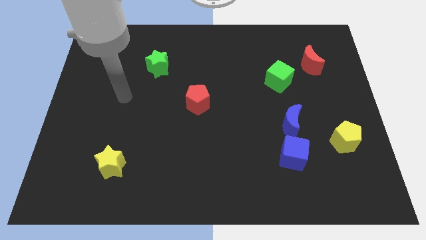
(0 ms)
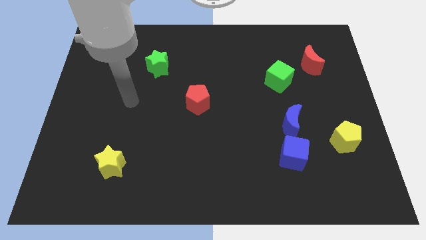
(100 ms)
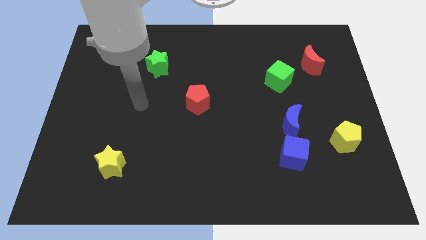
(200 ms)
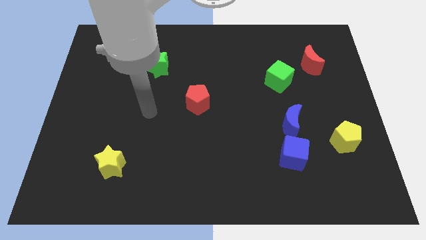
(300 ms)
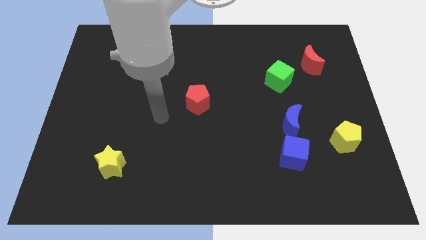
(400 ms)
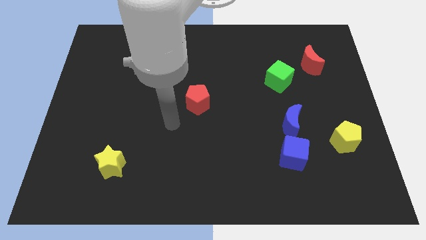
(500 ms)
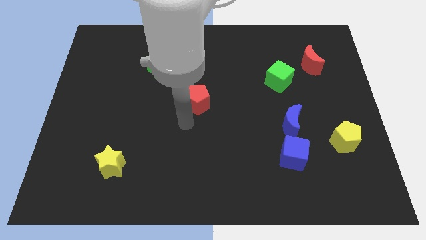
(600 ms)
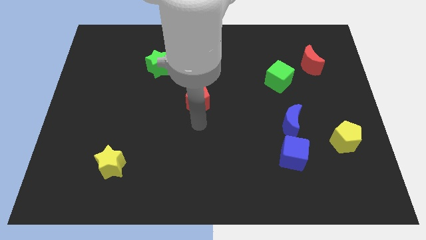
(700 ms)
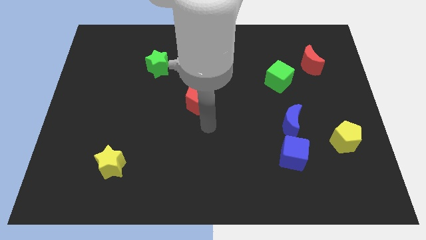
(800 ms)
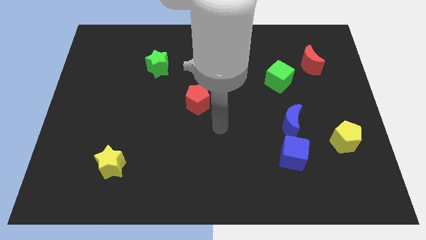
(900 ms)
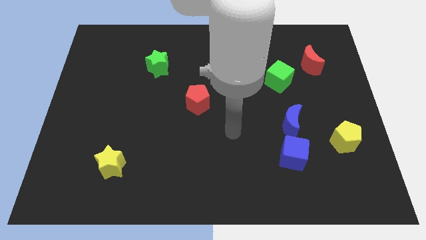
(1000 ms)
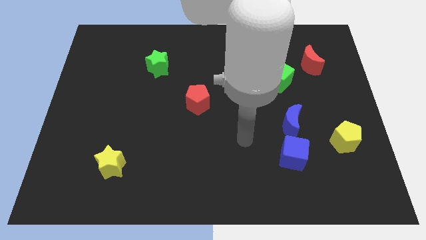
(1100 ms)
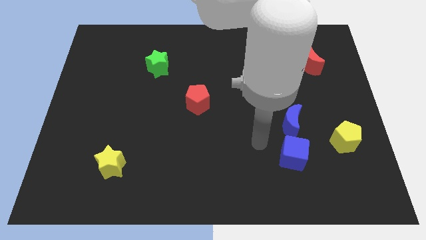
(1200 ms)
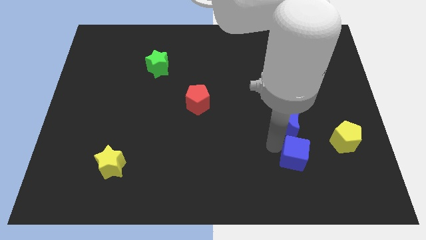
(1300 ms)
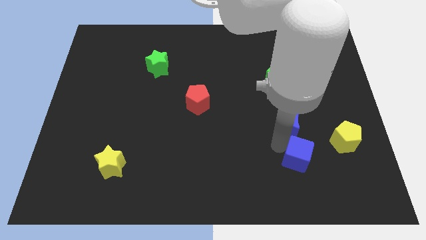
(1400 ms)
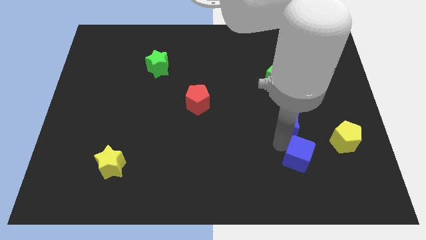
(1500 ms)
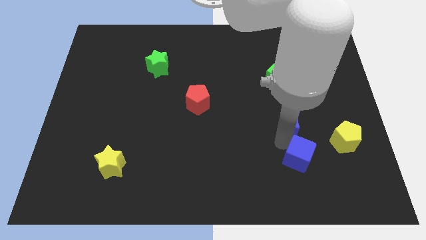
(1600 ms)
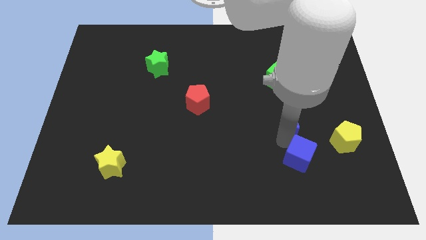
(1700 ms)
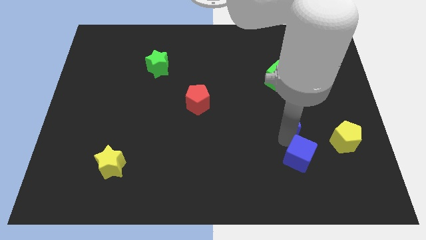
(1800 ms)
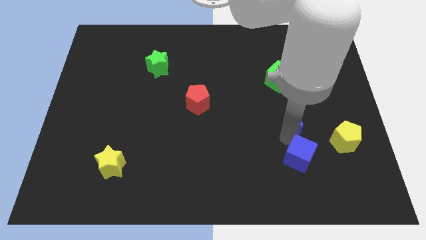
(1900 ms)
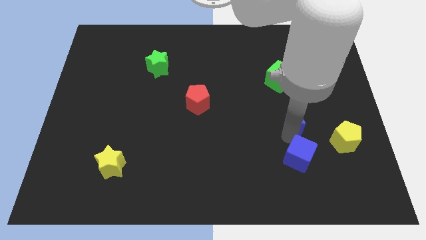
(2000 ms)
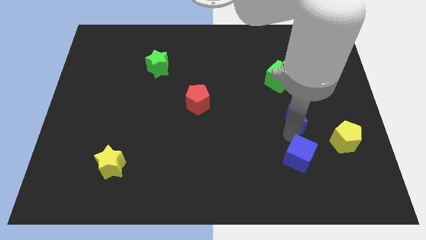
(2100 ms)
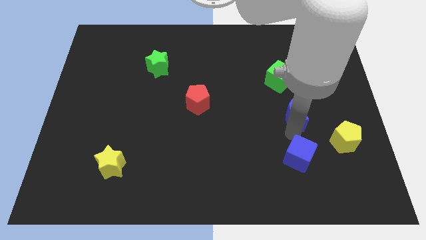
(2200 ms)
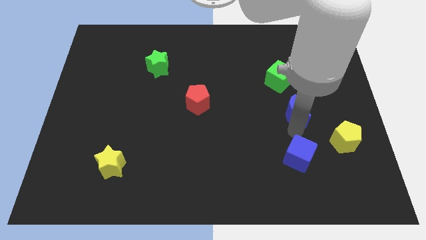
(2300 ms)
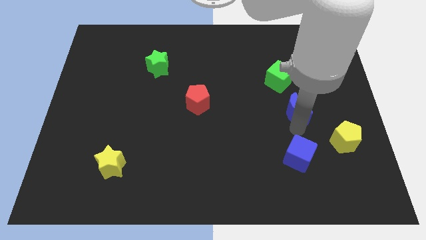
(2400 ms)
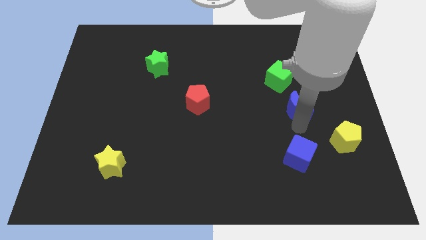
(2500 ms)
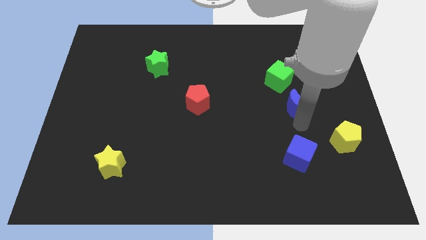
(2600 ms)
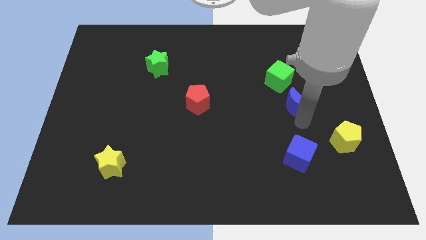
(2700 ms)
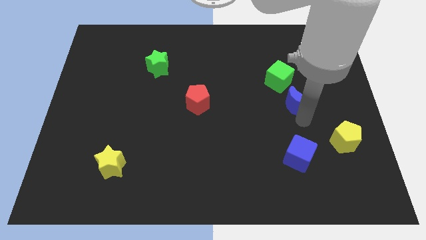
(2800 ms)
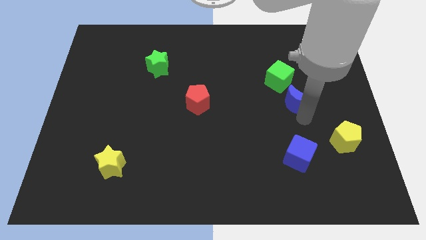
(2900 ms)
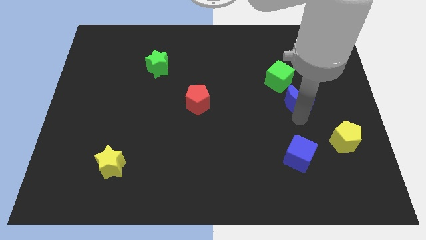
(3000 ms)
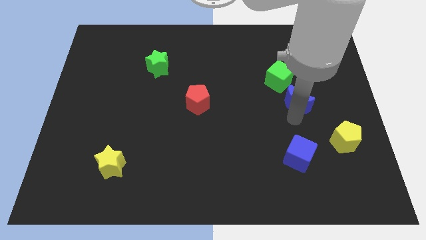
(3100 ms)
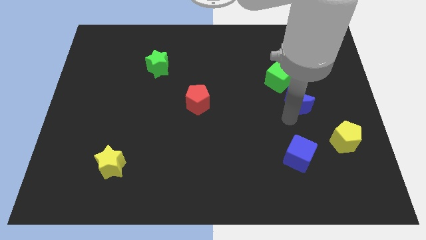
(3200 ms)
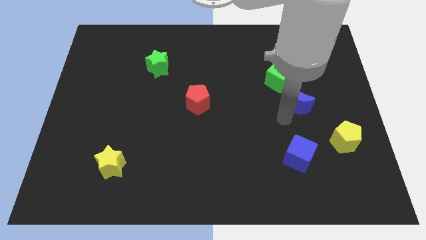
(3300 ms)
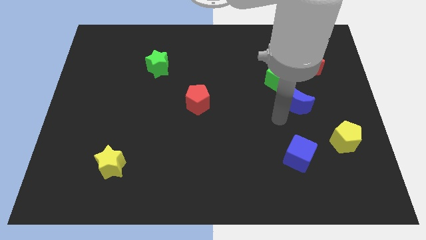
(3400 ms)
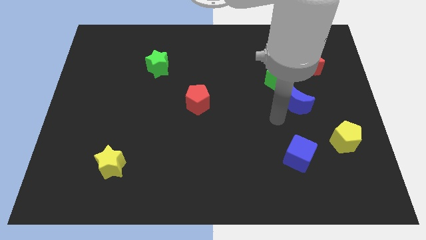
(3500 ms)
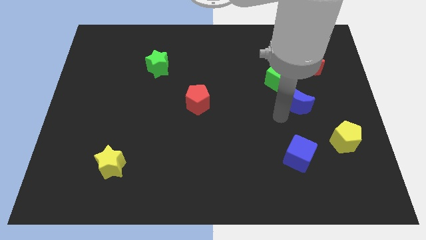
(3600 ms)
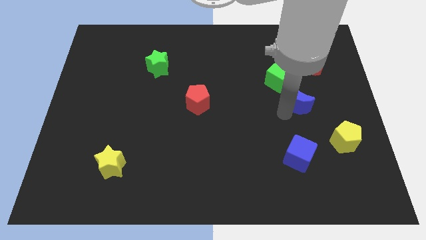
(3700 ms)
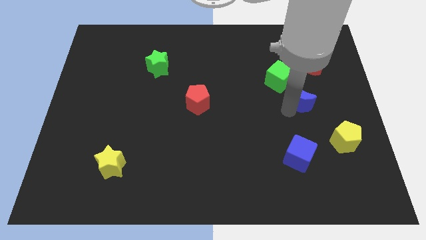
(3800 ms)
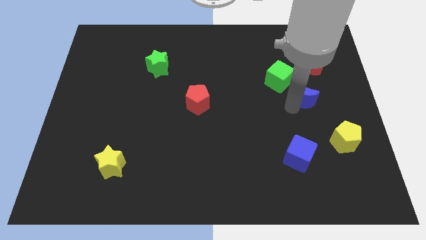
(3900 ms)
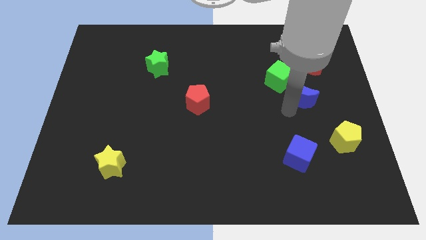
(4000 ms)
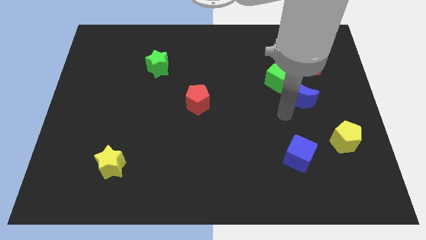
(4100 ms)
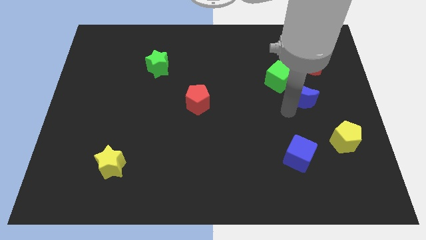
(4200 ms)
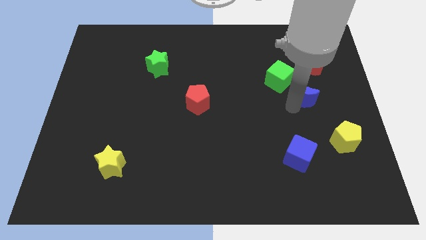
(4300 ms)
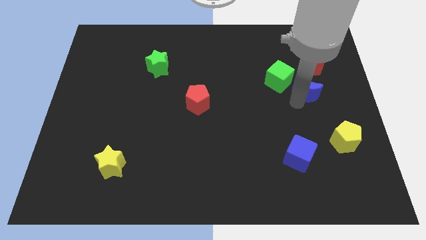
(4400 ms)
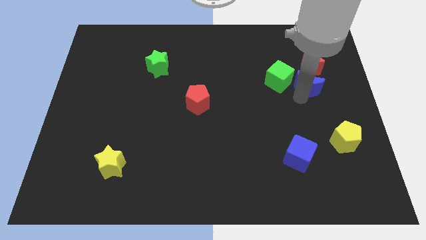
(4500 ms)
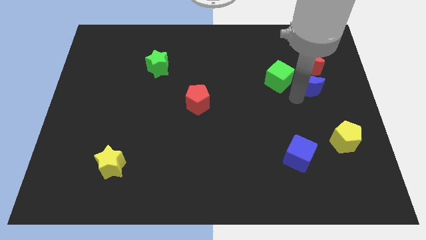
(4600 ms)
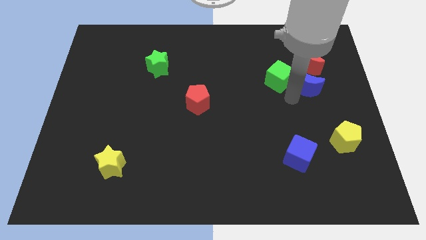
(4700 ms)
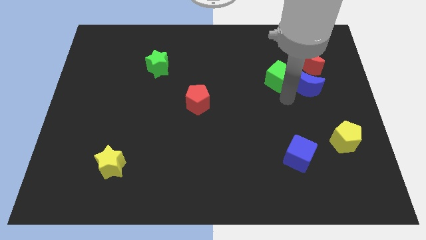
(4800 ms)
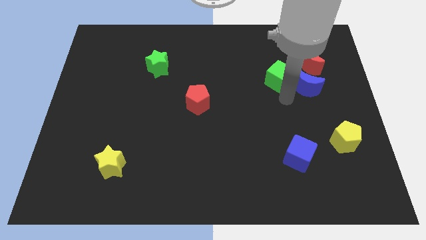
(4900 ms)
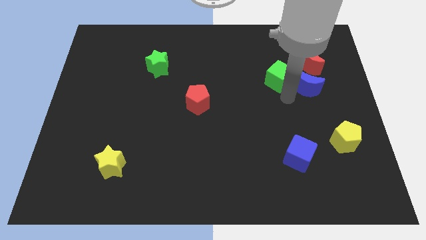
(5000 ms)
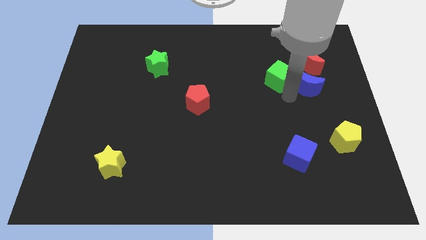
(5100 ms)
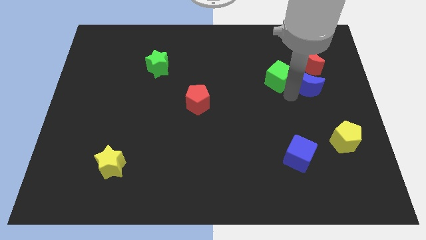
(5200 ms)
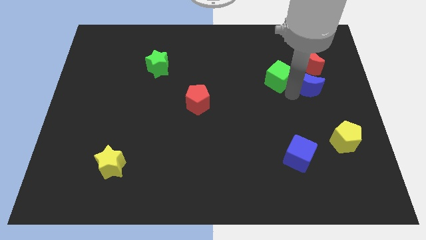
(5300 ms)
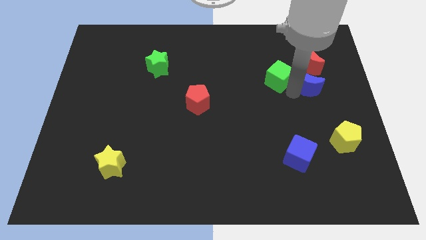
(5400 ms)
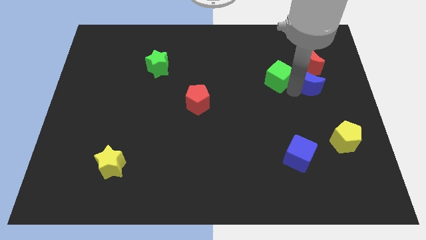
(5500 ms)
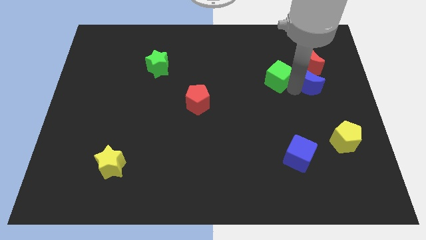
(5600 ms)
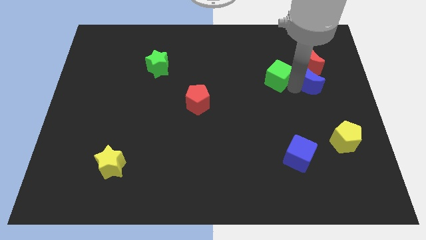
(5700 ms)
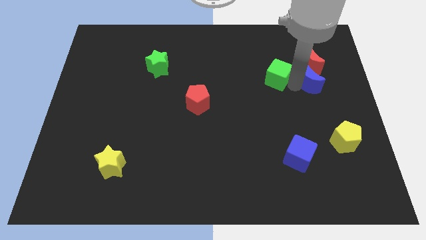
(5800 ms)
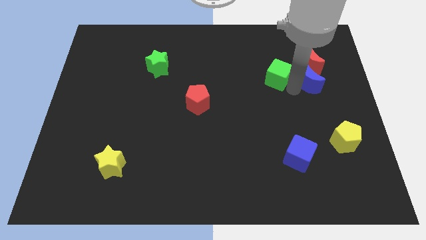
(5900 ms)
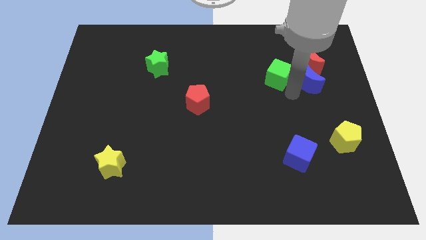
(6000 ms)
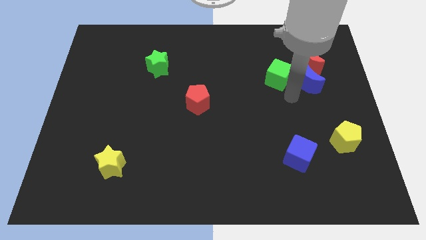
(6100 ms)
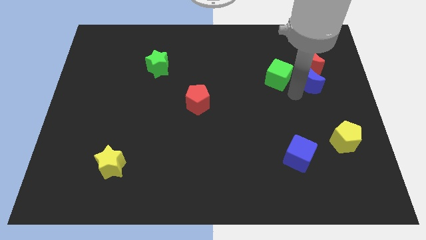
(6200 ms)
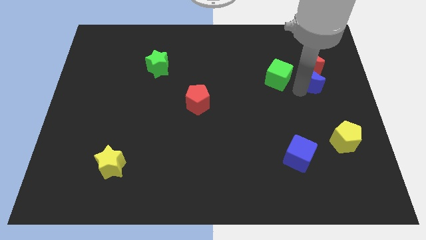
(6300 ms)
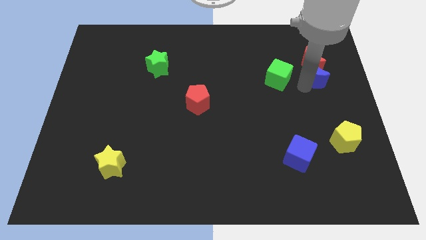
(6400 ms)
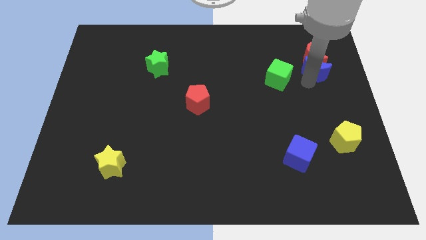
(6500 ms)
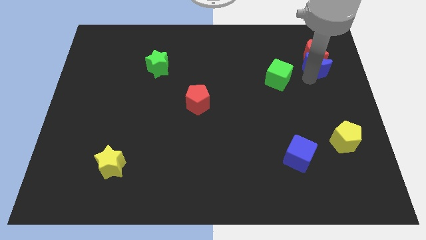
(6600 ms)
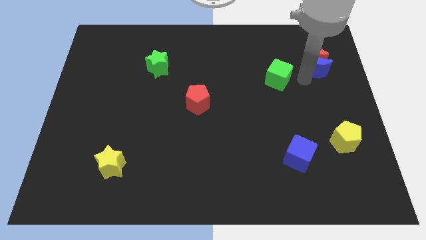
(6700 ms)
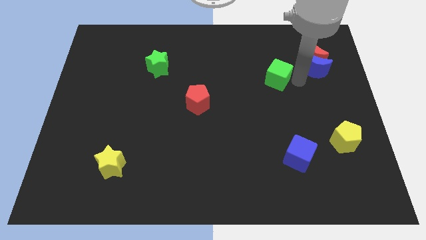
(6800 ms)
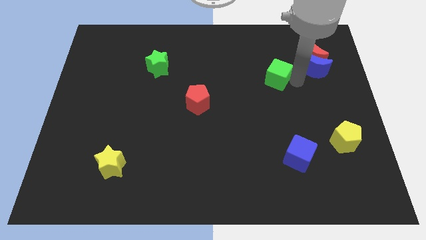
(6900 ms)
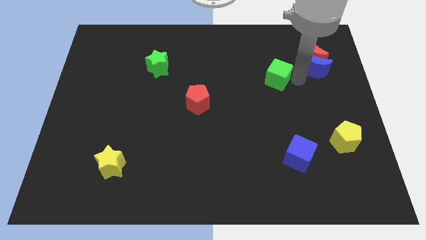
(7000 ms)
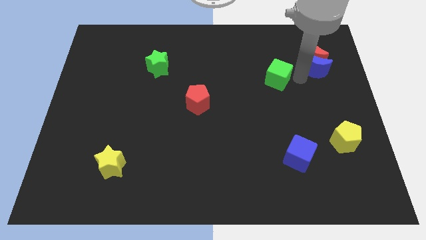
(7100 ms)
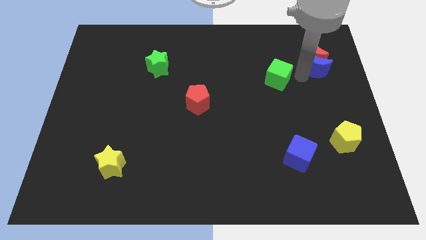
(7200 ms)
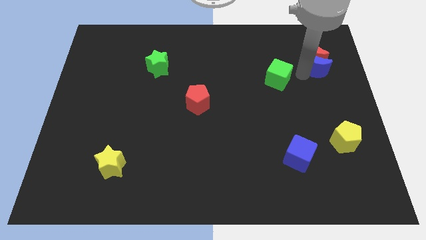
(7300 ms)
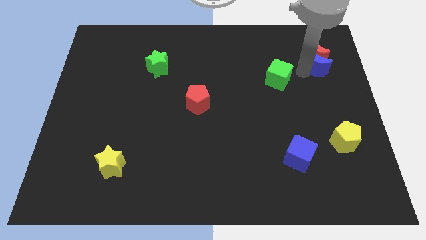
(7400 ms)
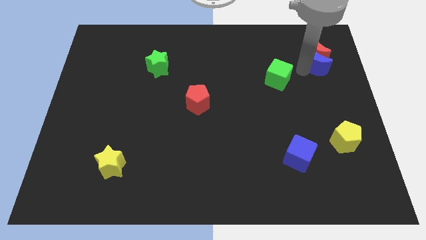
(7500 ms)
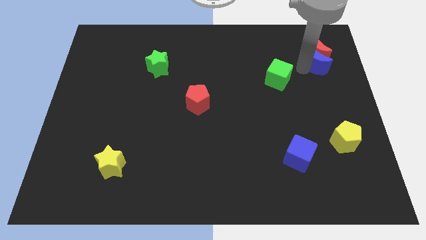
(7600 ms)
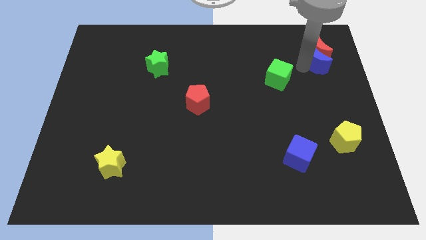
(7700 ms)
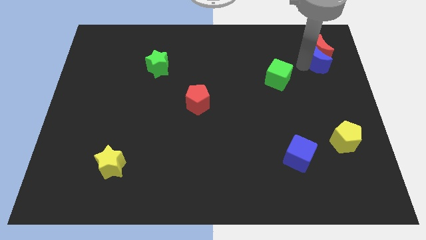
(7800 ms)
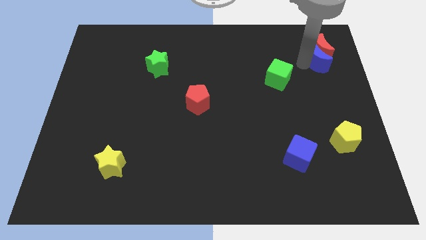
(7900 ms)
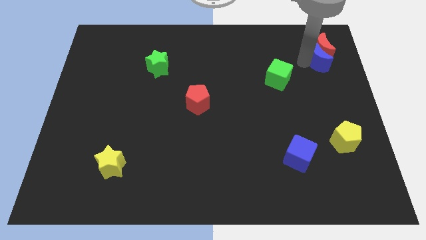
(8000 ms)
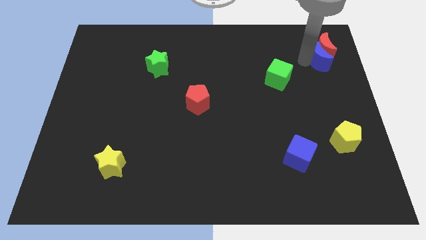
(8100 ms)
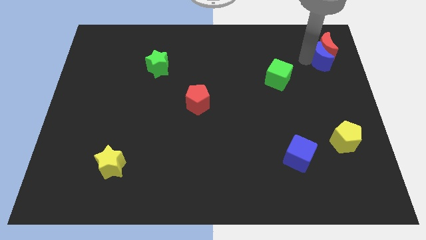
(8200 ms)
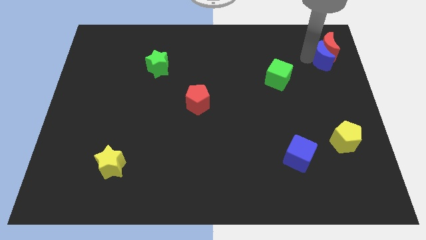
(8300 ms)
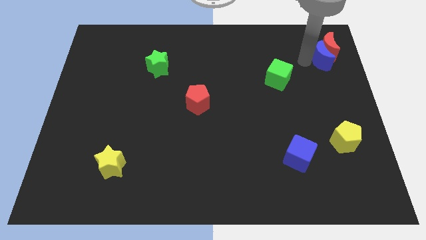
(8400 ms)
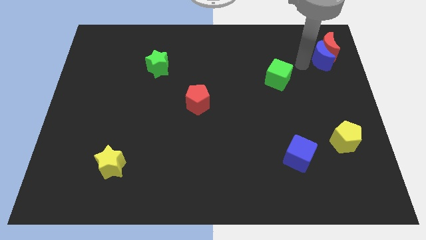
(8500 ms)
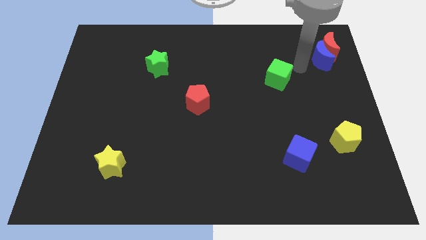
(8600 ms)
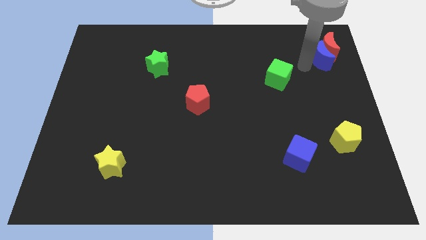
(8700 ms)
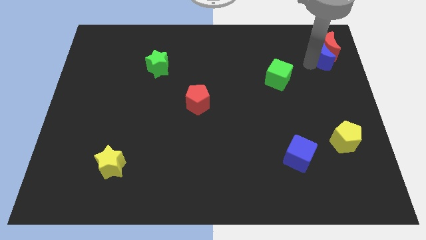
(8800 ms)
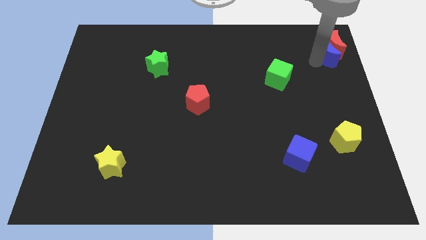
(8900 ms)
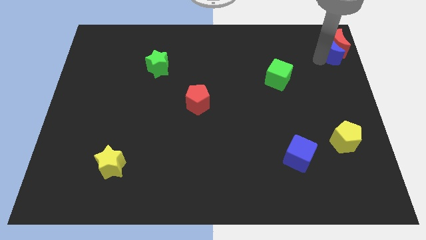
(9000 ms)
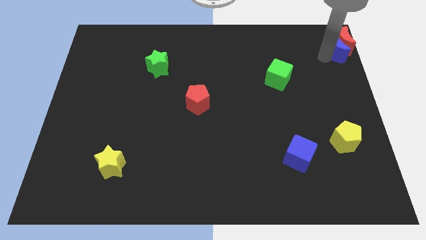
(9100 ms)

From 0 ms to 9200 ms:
put the blue moon to the top right
